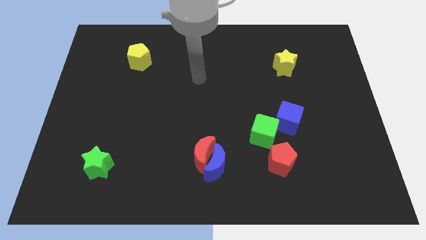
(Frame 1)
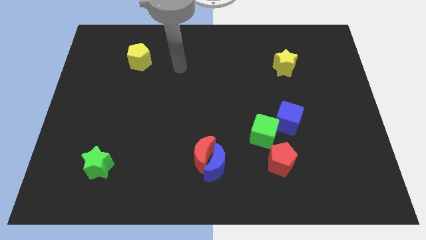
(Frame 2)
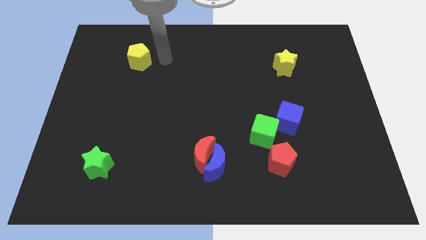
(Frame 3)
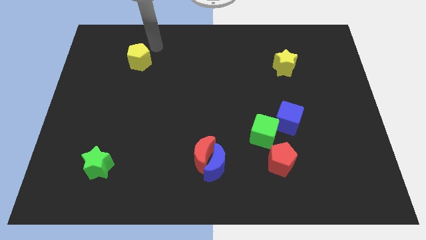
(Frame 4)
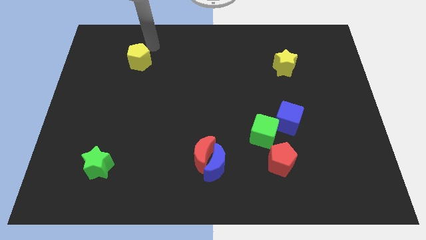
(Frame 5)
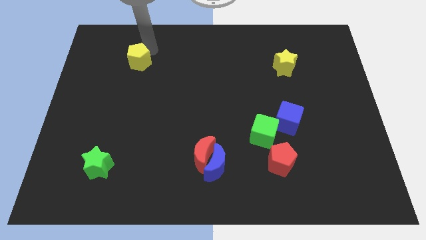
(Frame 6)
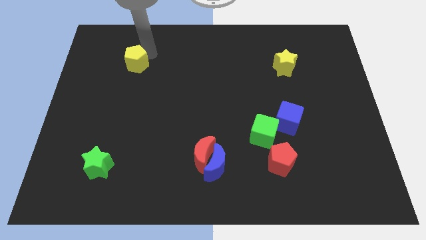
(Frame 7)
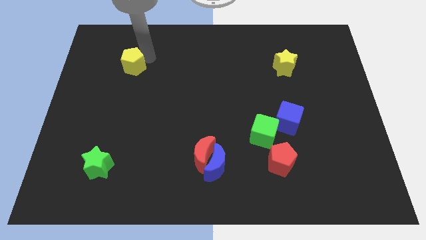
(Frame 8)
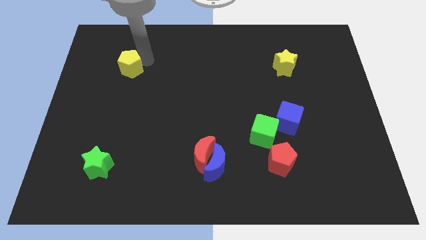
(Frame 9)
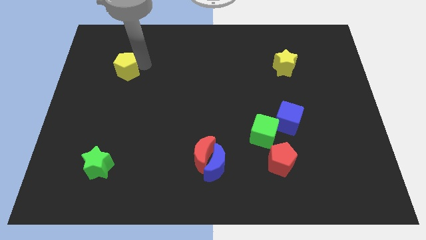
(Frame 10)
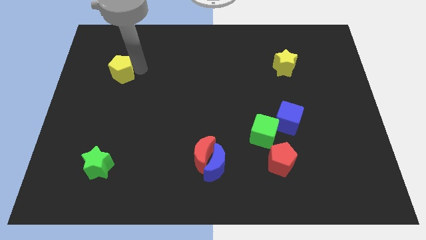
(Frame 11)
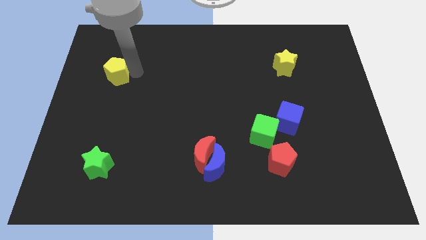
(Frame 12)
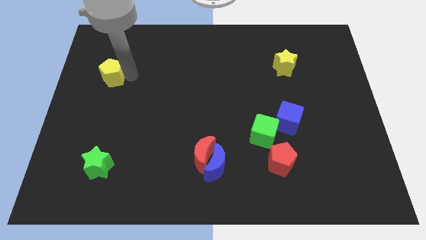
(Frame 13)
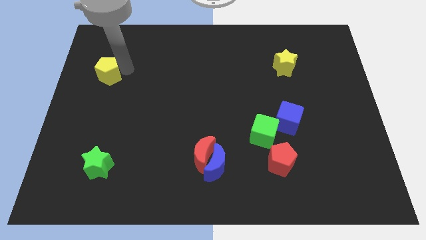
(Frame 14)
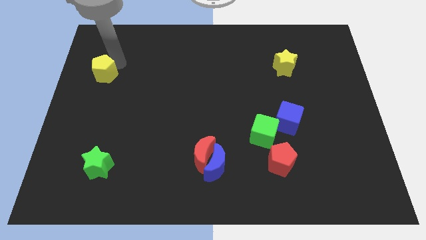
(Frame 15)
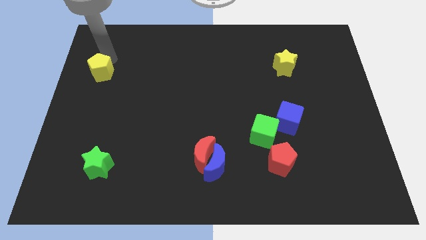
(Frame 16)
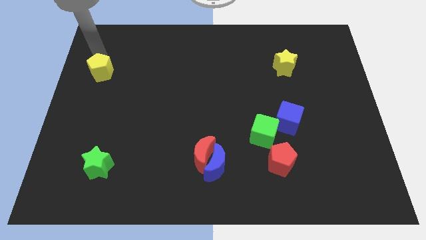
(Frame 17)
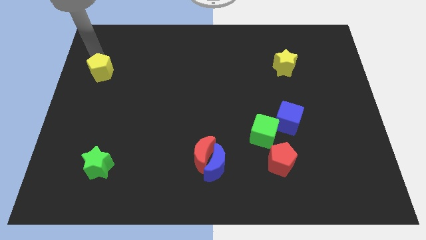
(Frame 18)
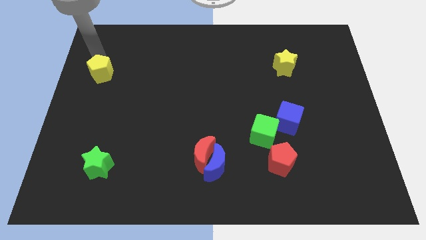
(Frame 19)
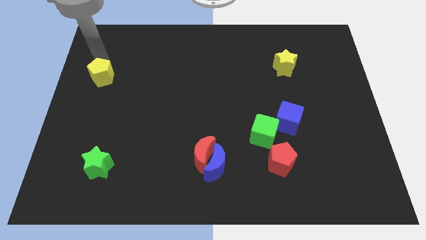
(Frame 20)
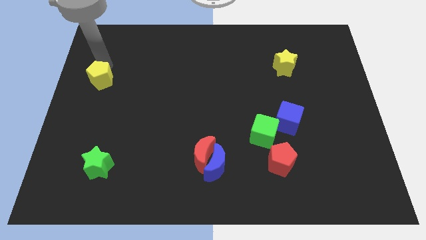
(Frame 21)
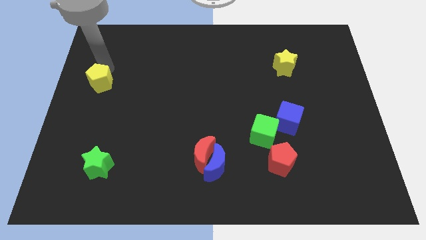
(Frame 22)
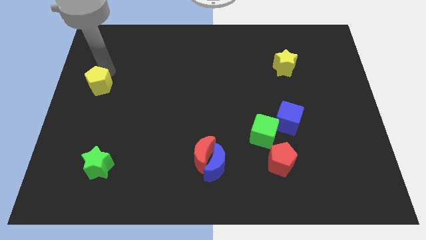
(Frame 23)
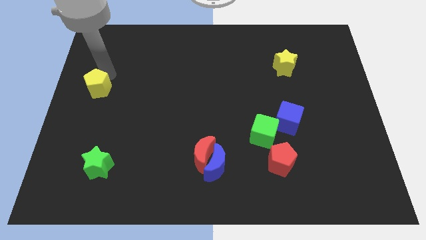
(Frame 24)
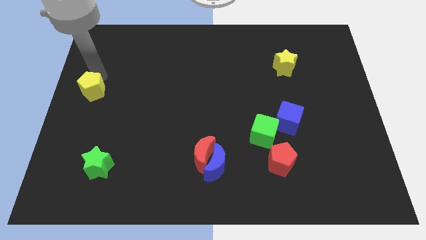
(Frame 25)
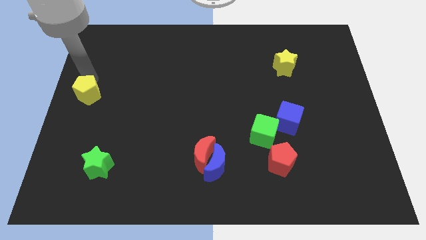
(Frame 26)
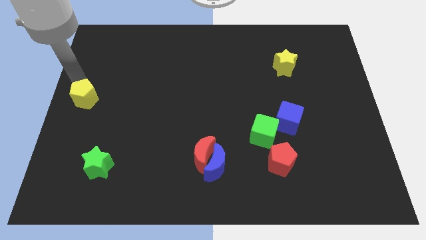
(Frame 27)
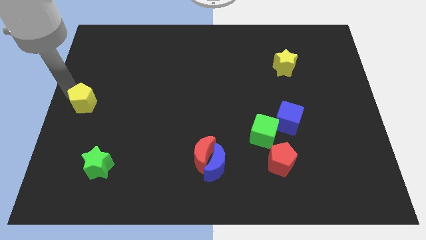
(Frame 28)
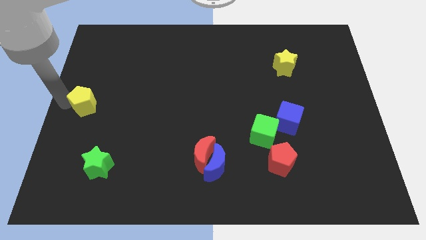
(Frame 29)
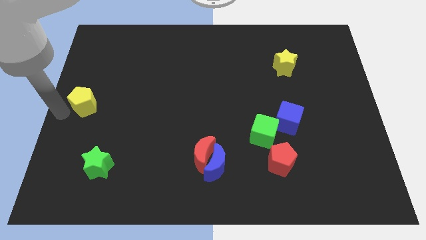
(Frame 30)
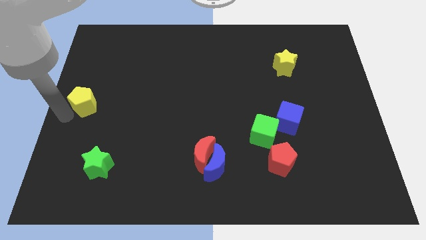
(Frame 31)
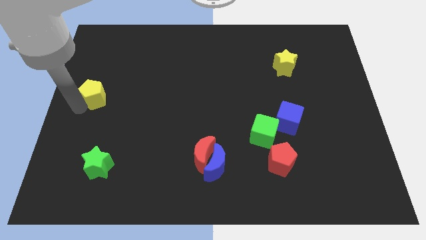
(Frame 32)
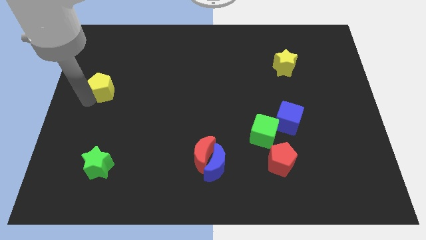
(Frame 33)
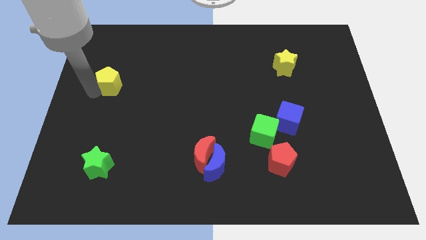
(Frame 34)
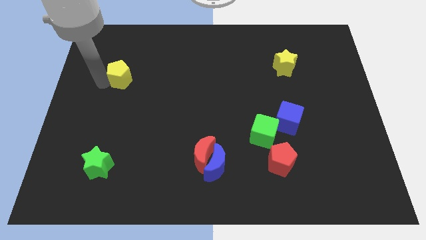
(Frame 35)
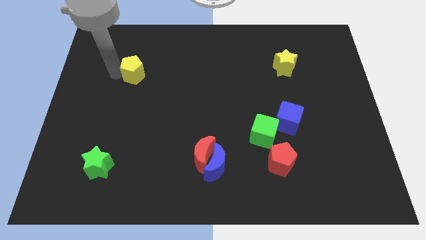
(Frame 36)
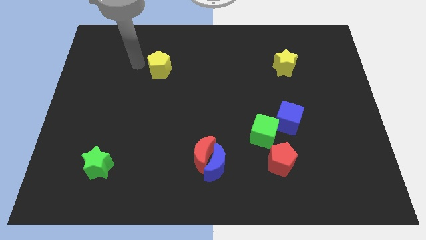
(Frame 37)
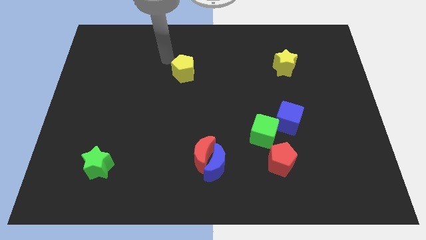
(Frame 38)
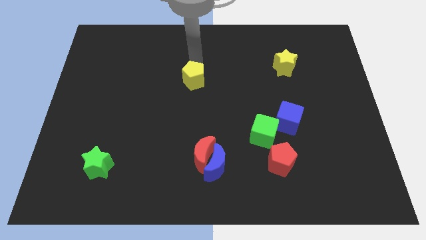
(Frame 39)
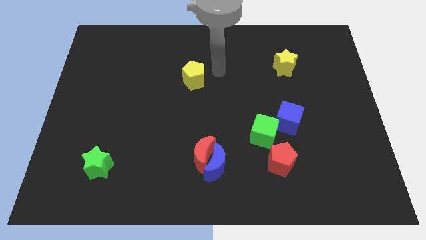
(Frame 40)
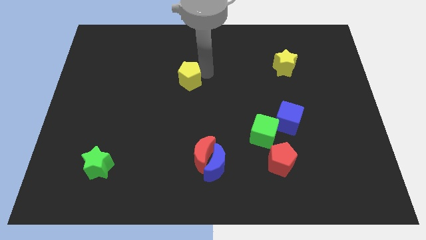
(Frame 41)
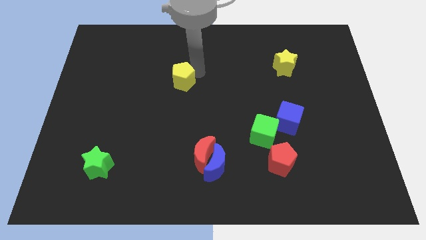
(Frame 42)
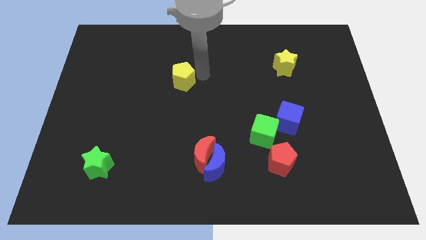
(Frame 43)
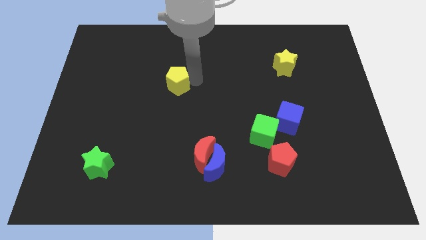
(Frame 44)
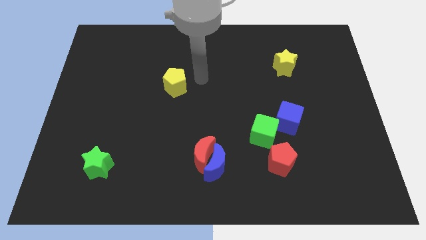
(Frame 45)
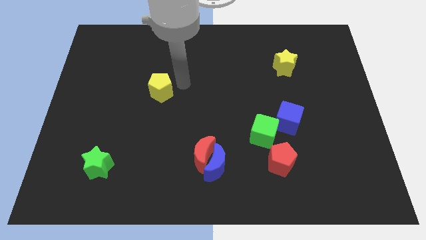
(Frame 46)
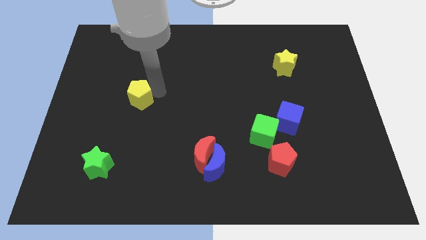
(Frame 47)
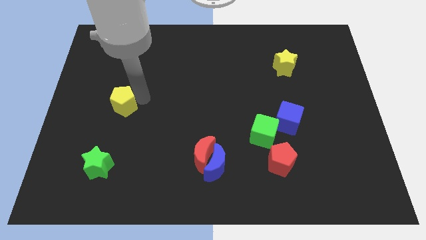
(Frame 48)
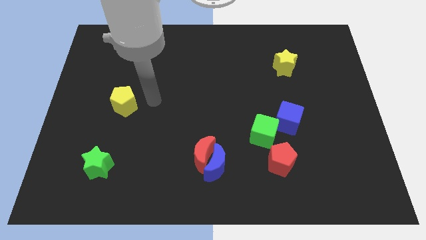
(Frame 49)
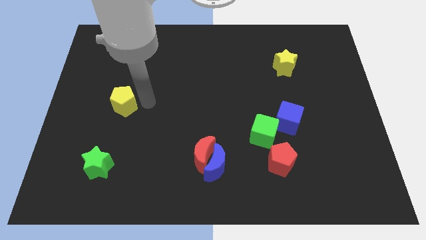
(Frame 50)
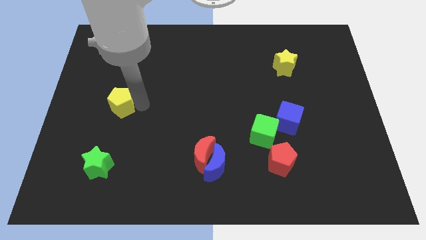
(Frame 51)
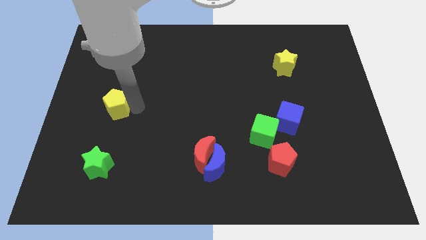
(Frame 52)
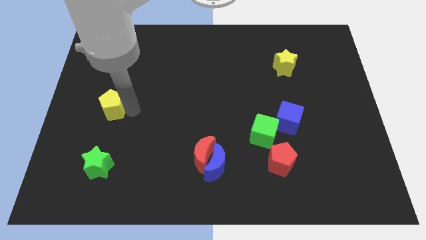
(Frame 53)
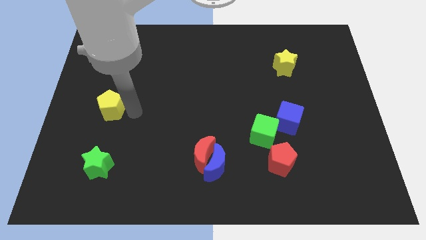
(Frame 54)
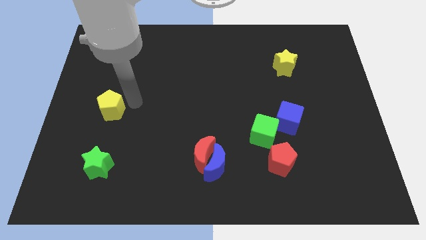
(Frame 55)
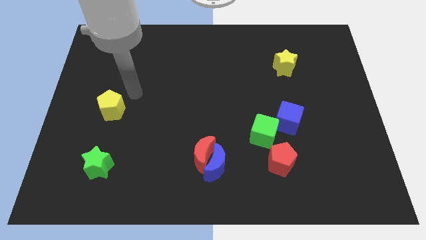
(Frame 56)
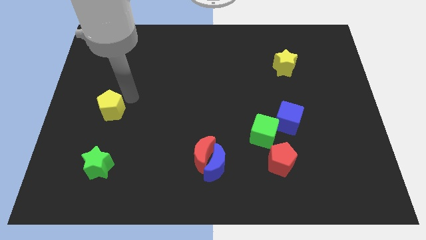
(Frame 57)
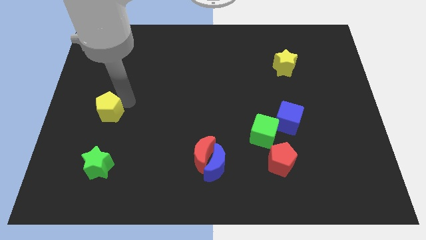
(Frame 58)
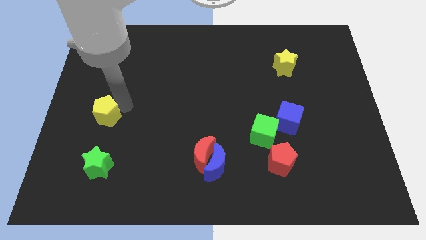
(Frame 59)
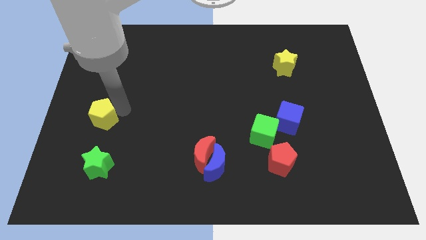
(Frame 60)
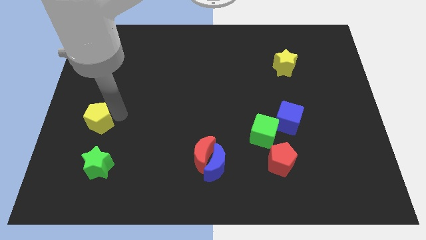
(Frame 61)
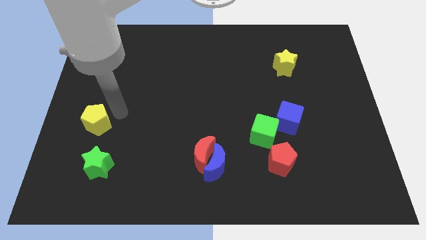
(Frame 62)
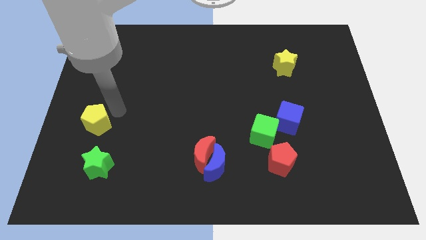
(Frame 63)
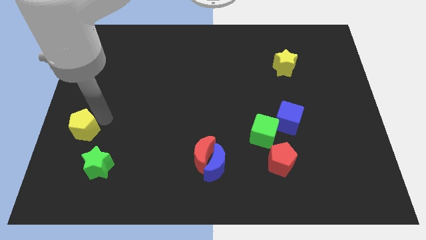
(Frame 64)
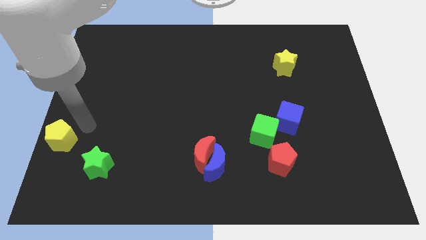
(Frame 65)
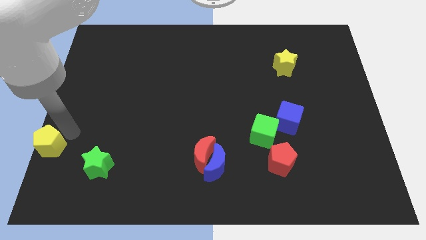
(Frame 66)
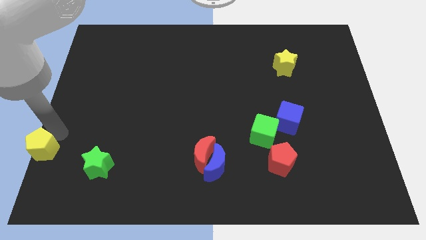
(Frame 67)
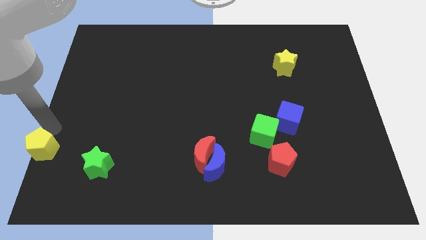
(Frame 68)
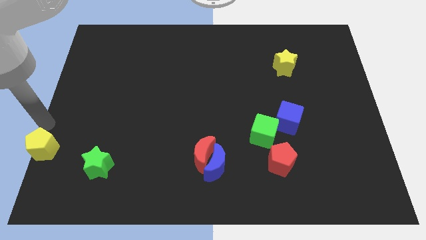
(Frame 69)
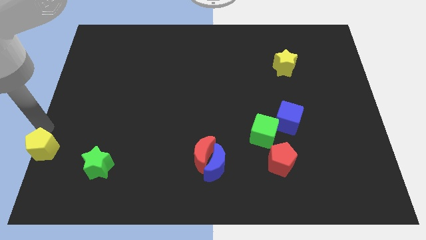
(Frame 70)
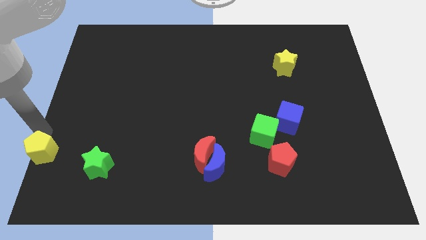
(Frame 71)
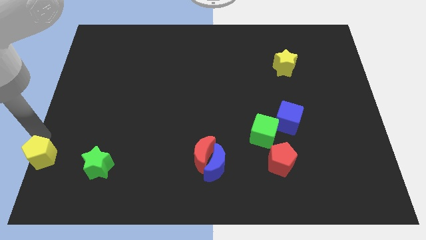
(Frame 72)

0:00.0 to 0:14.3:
push the yellow pentagon to the bottom left
